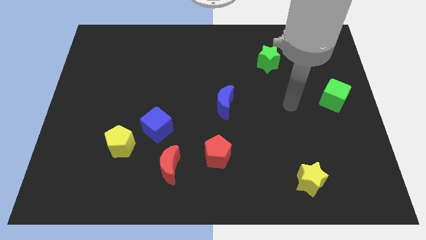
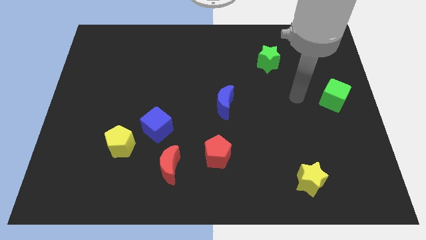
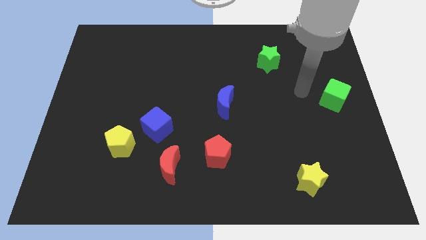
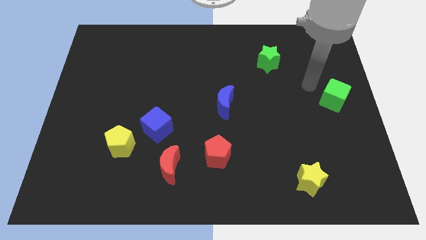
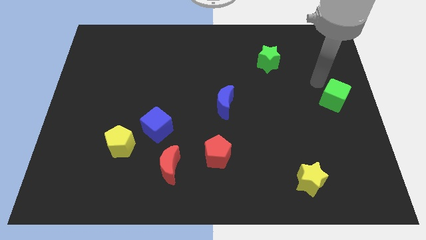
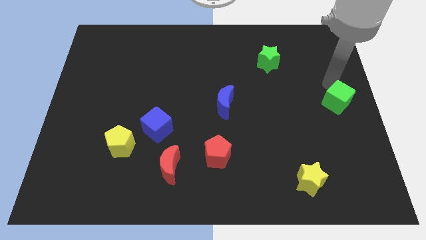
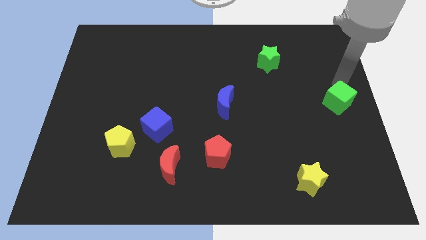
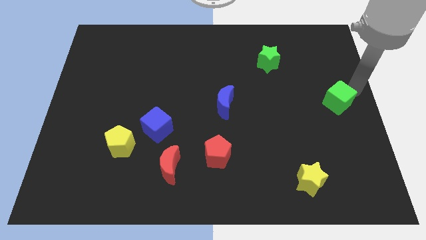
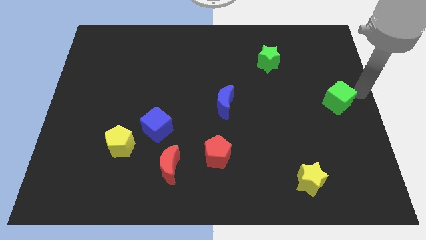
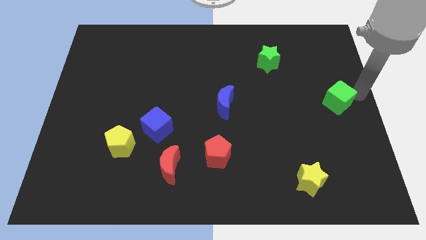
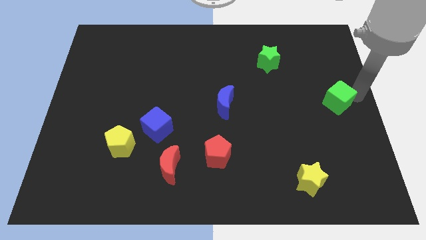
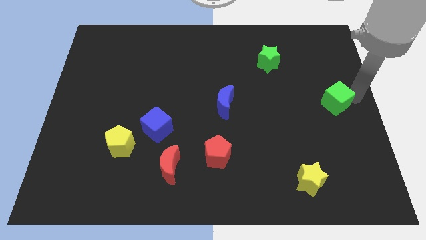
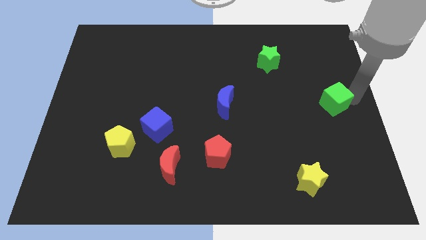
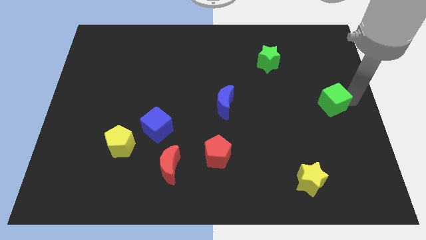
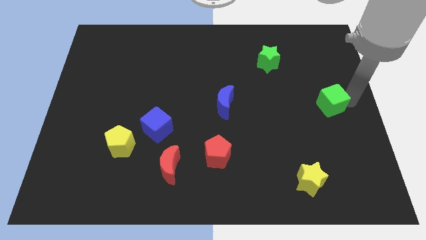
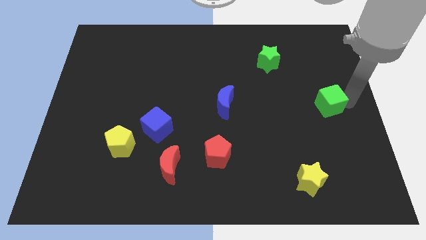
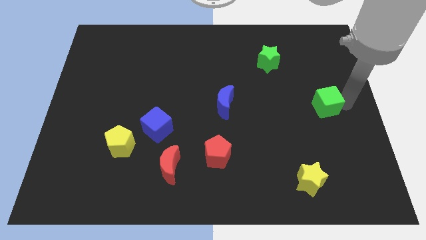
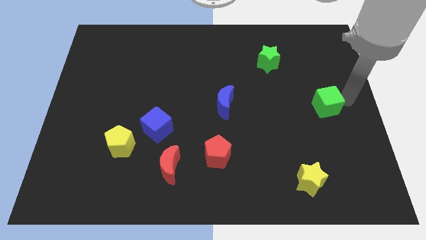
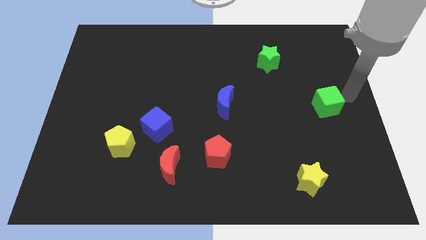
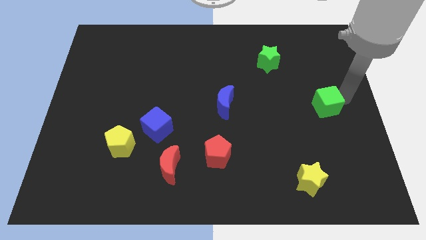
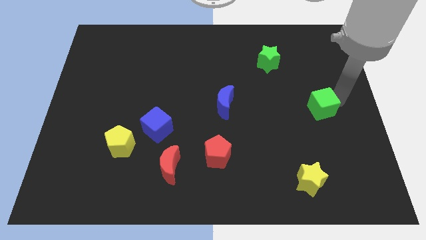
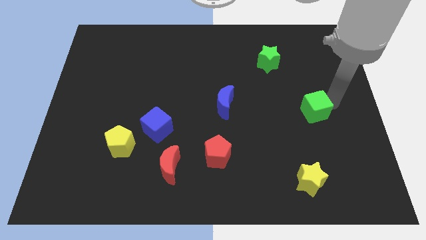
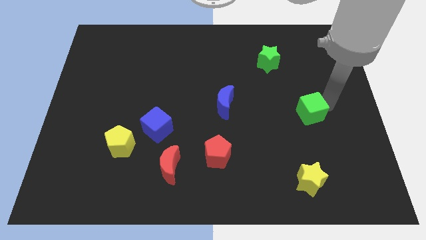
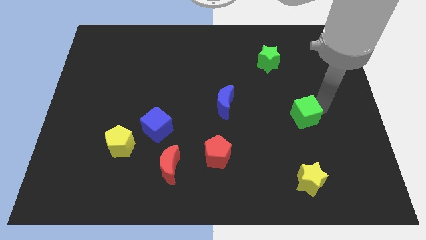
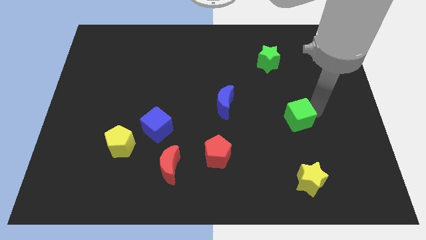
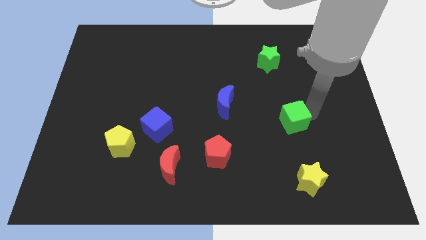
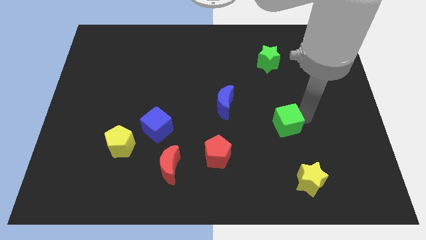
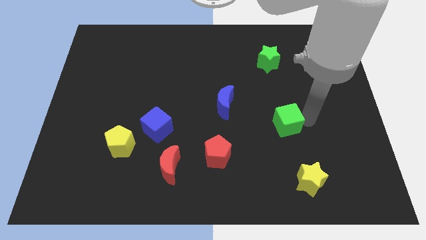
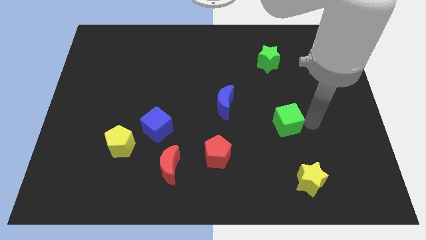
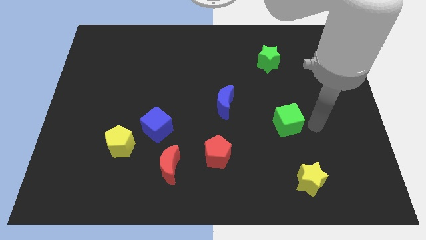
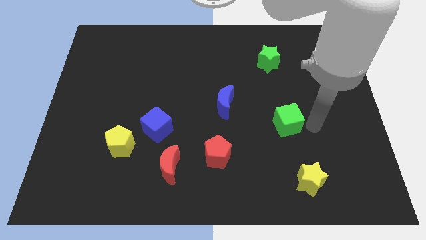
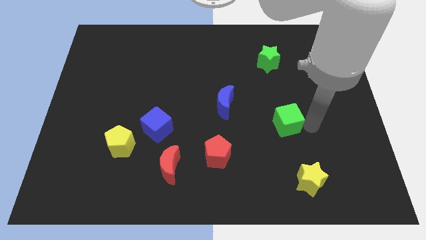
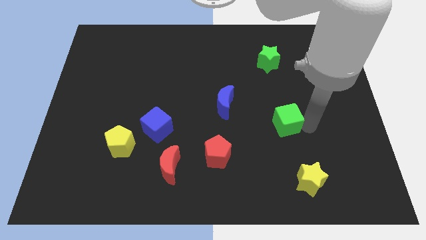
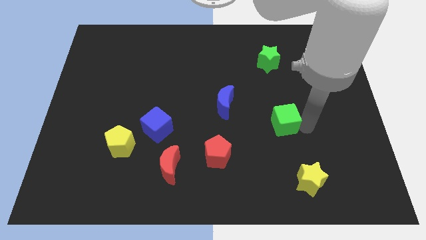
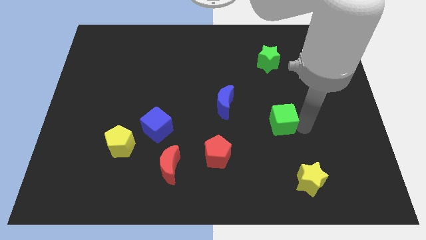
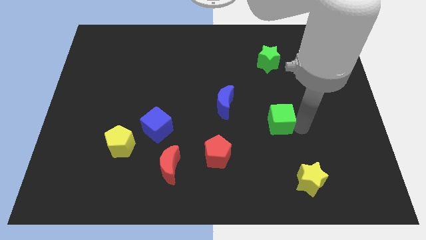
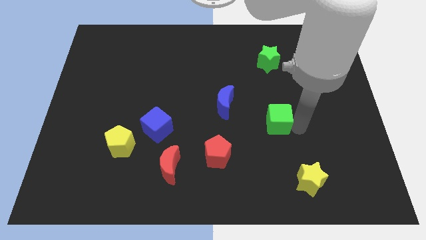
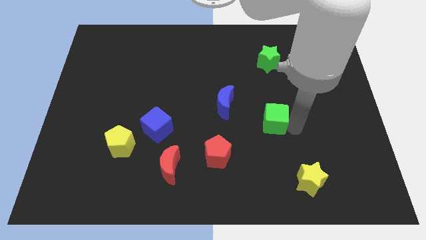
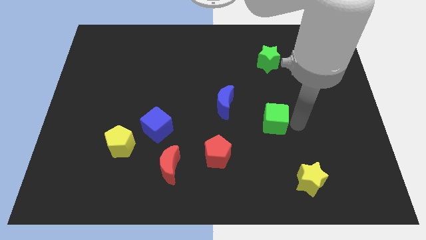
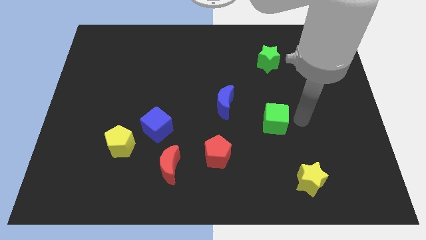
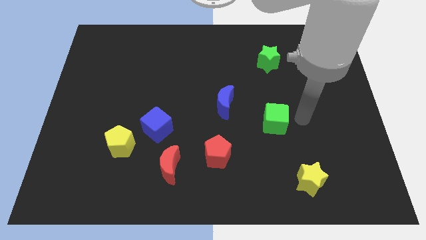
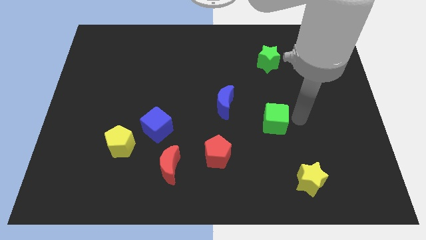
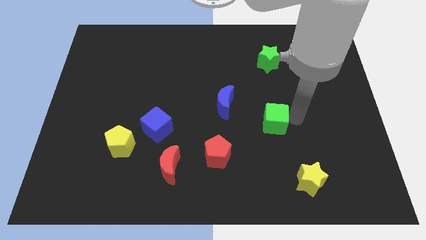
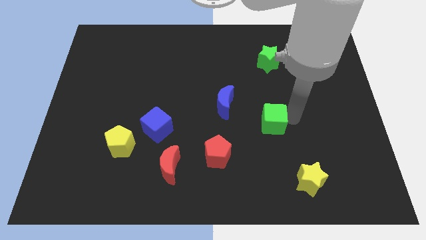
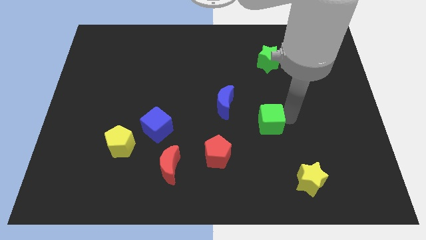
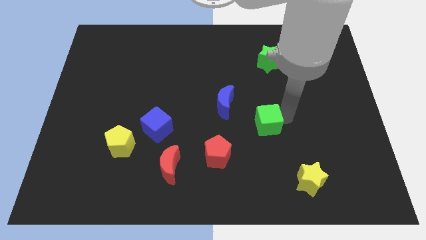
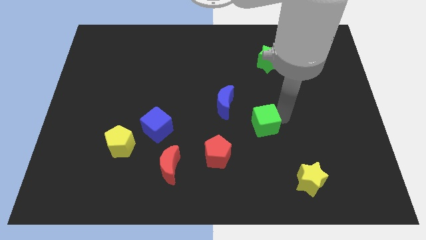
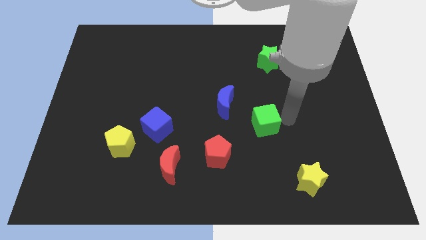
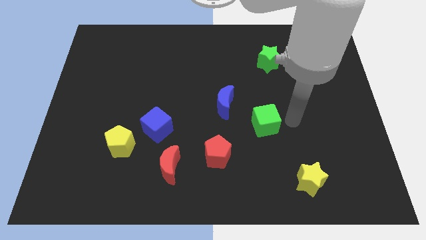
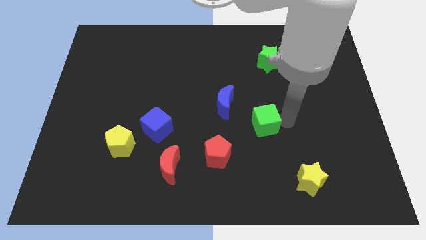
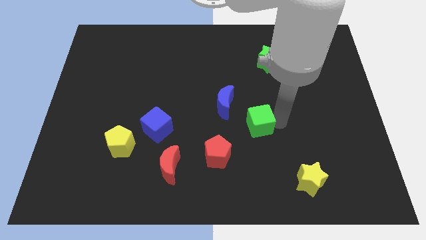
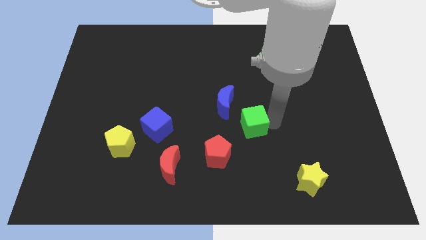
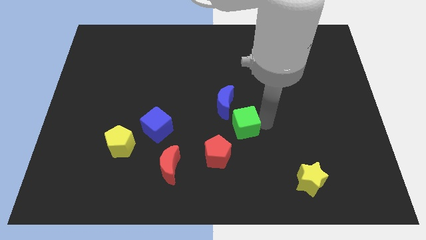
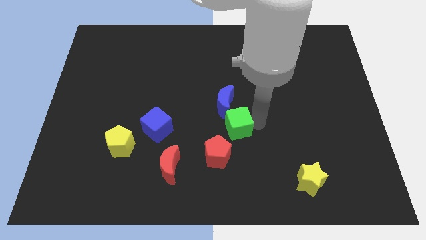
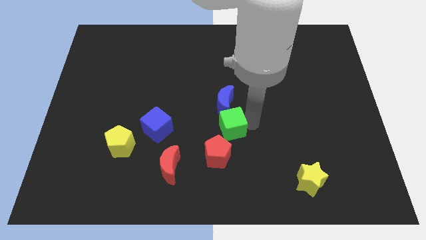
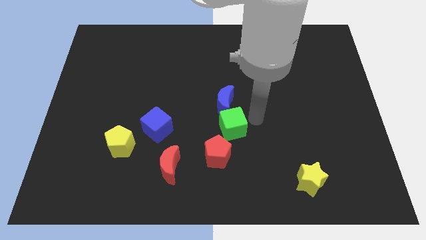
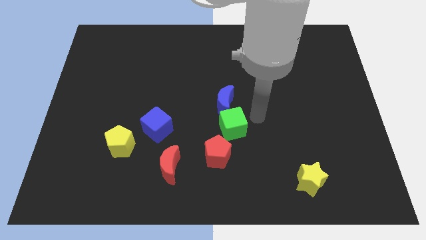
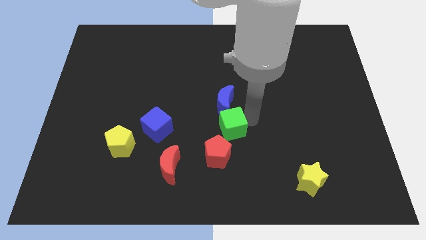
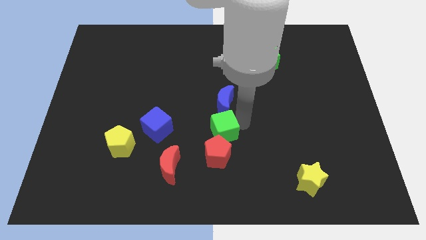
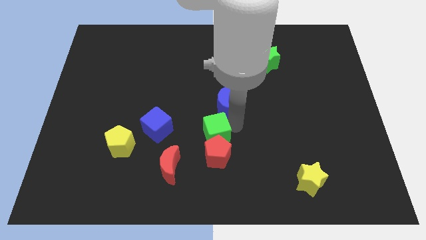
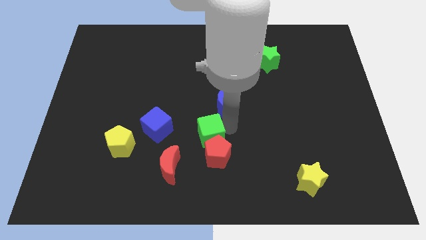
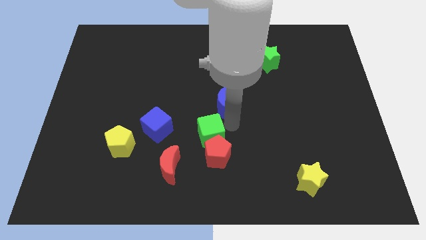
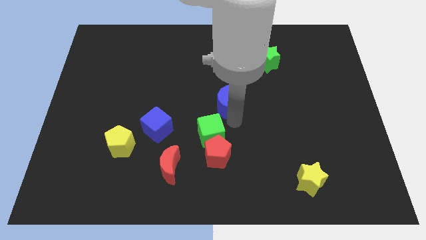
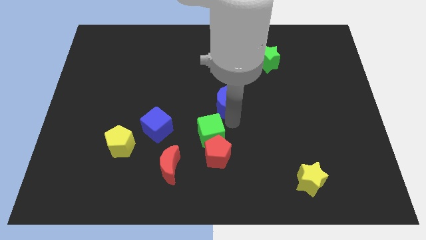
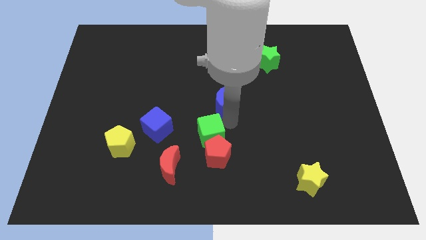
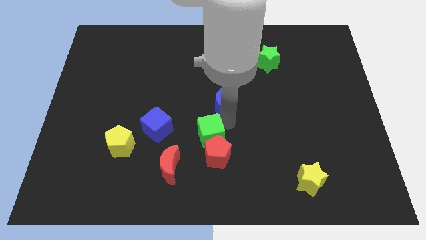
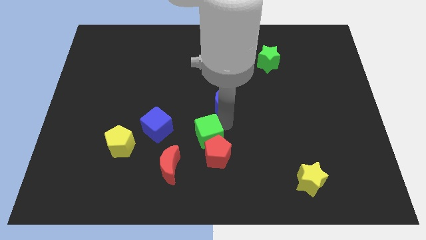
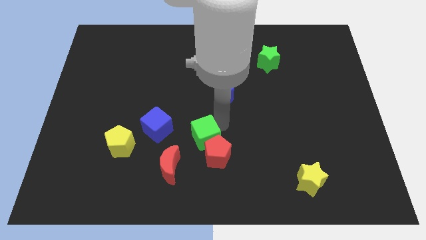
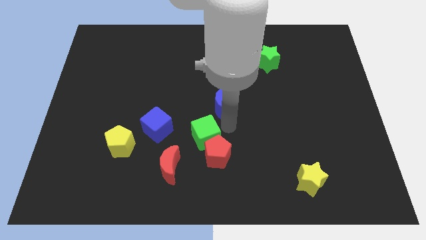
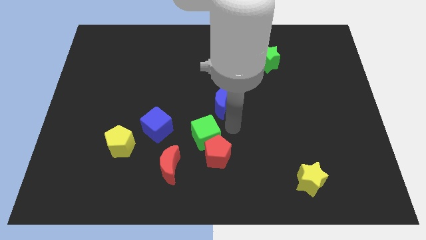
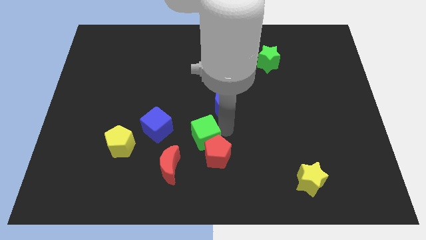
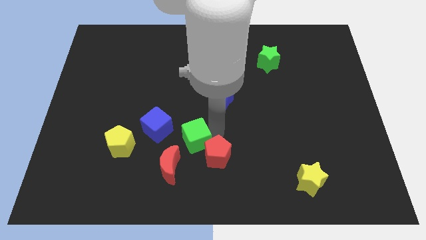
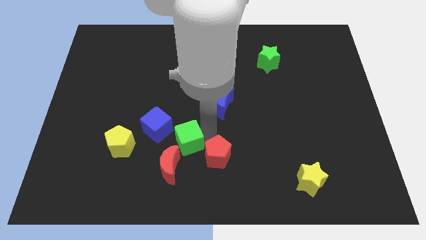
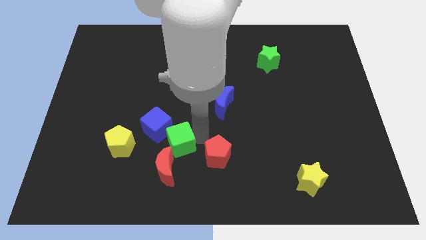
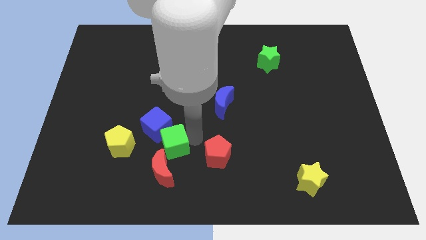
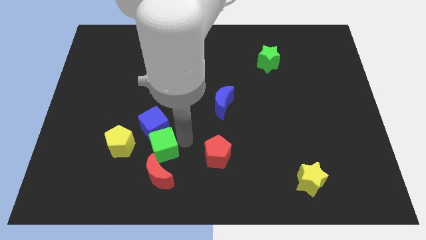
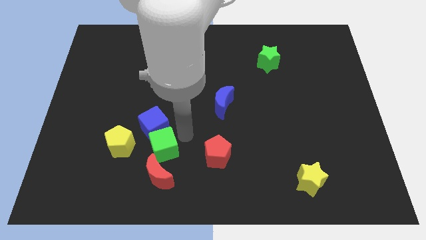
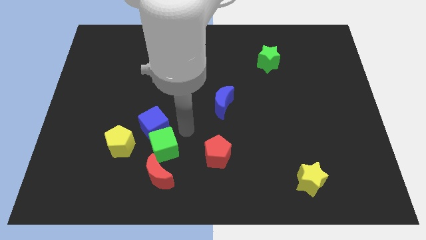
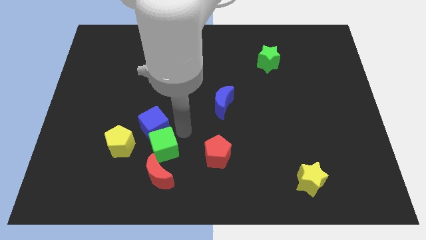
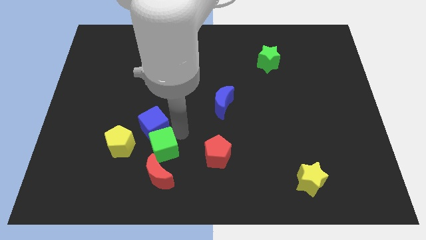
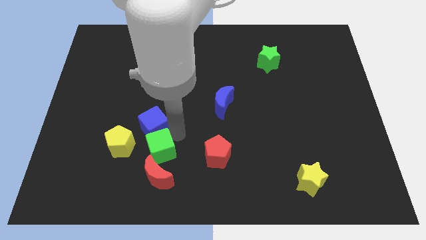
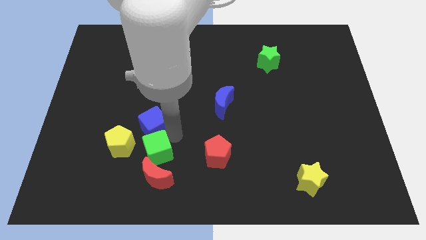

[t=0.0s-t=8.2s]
push the green cube to the bottom right of the yellow pentagon

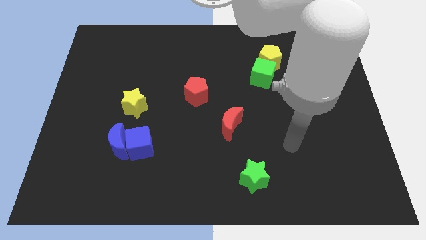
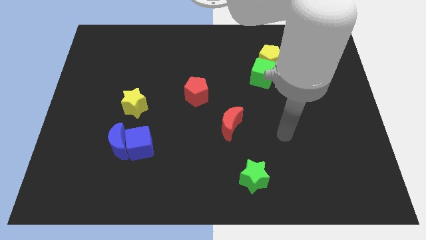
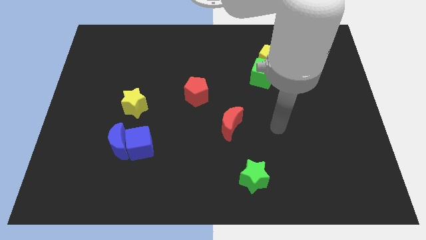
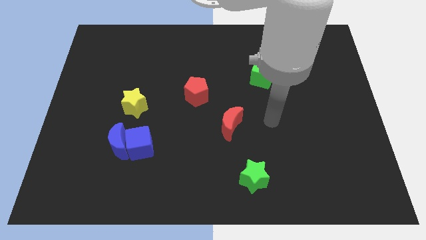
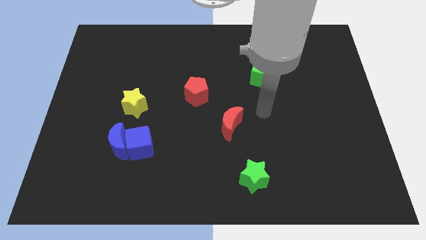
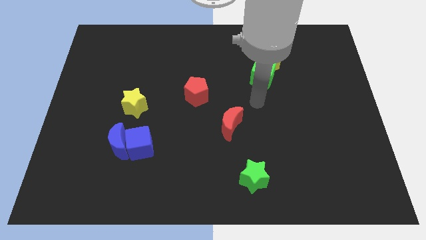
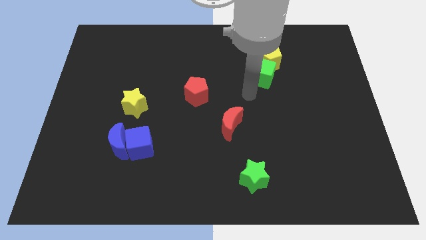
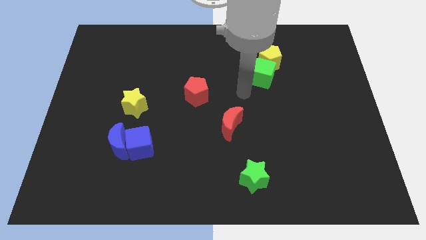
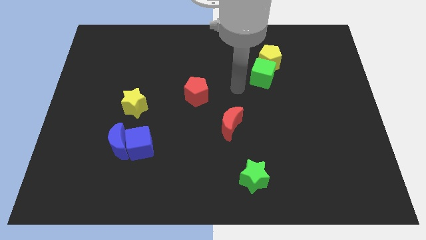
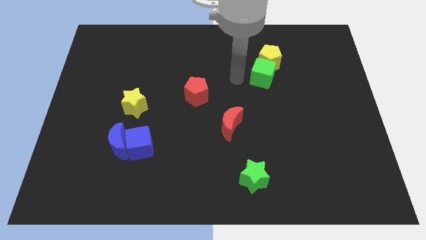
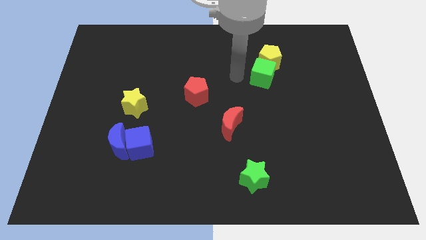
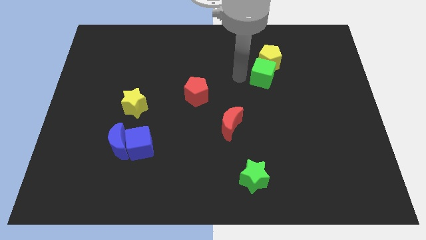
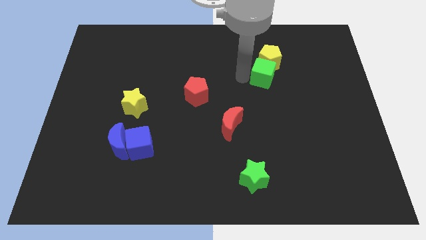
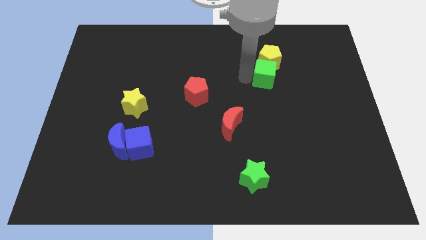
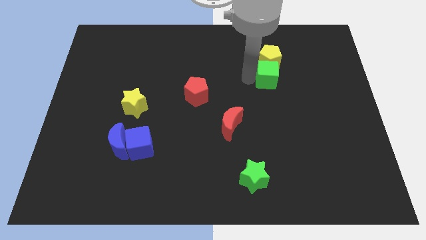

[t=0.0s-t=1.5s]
move the green cube to the bottom right side of the yellow pentagon
